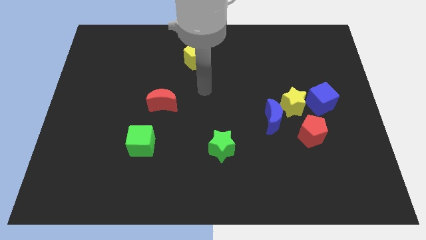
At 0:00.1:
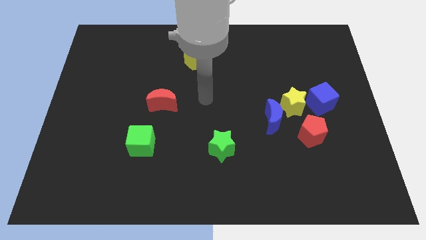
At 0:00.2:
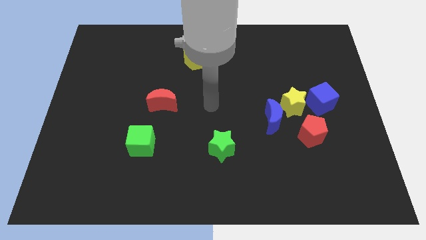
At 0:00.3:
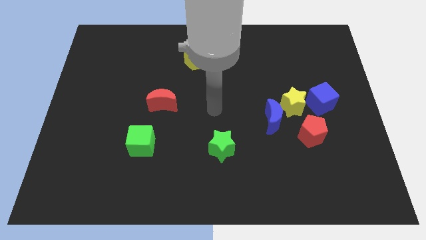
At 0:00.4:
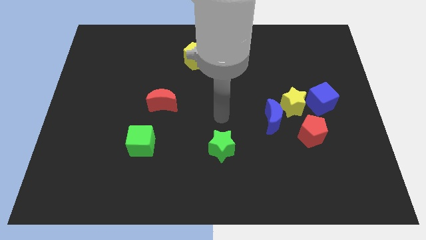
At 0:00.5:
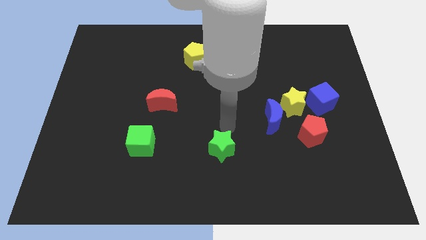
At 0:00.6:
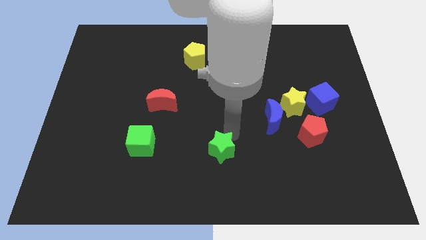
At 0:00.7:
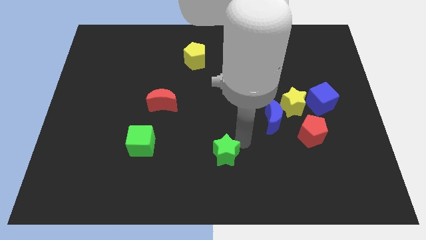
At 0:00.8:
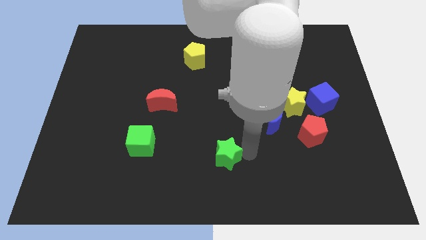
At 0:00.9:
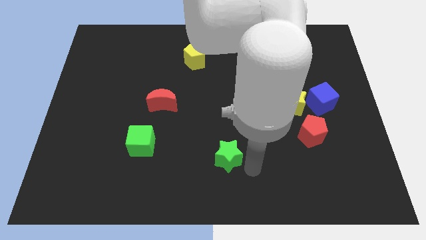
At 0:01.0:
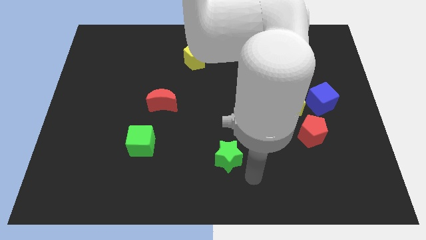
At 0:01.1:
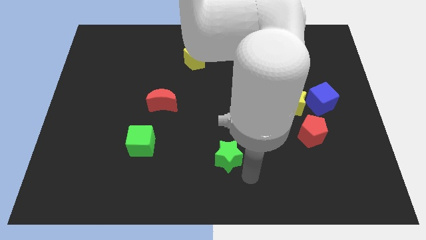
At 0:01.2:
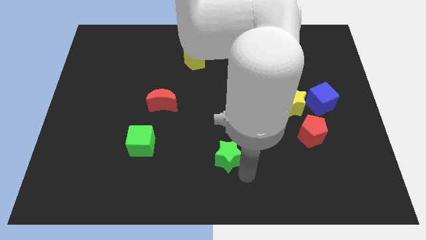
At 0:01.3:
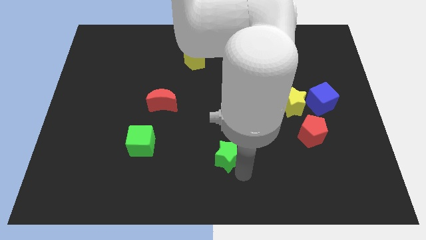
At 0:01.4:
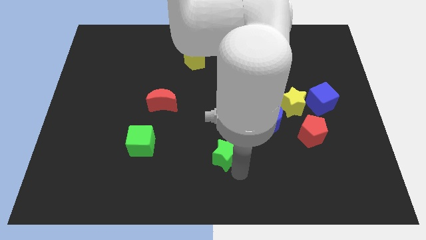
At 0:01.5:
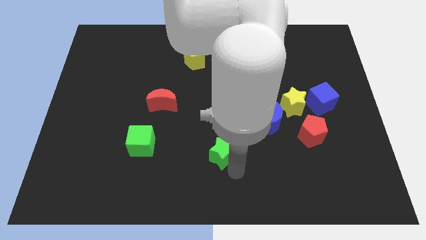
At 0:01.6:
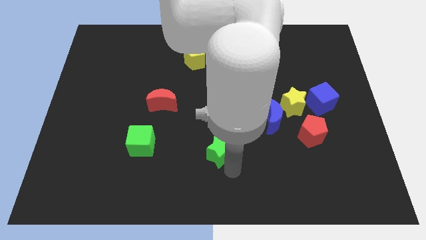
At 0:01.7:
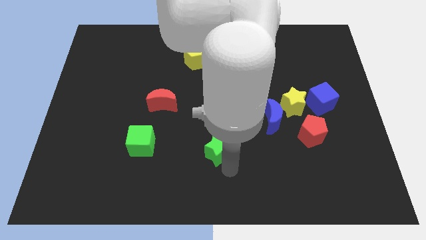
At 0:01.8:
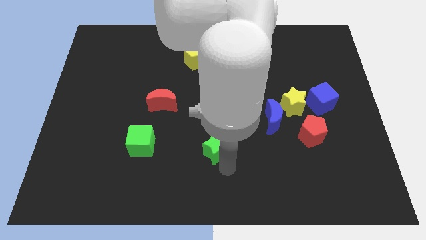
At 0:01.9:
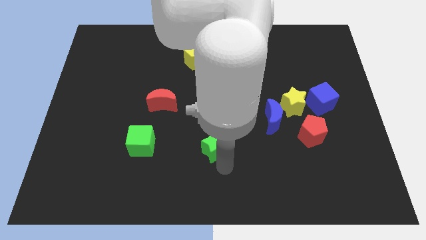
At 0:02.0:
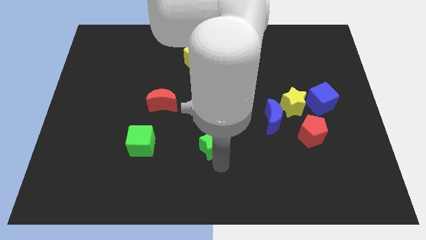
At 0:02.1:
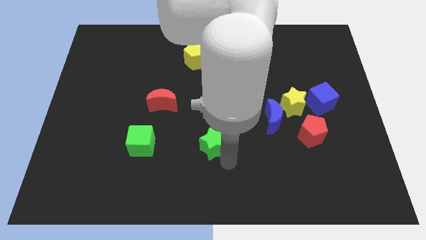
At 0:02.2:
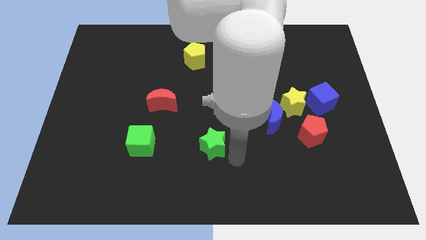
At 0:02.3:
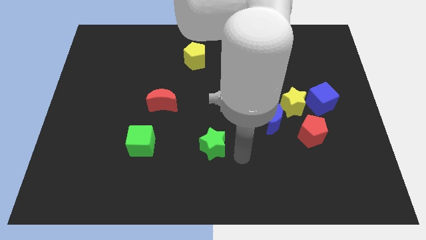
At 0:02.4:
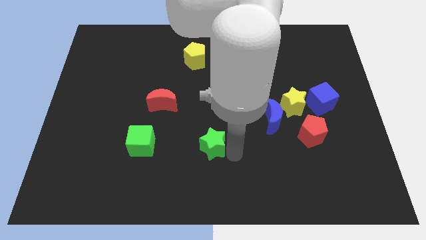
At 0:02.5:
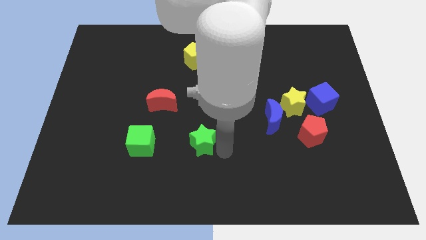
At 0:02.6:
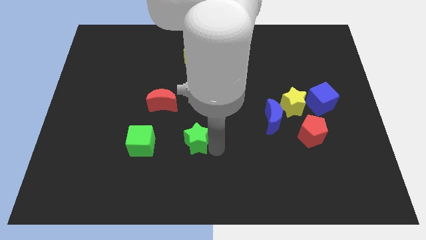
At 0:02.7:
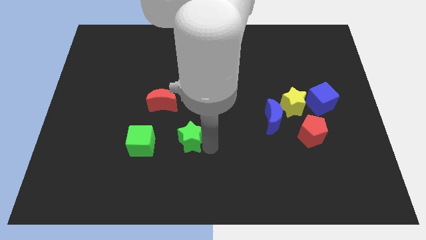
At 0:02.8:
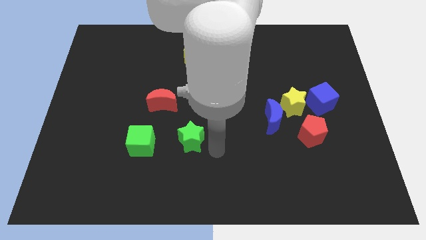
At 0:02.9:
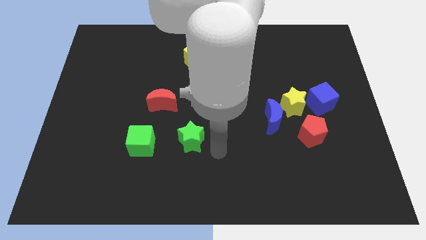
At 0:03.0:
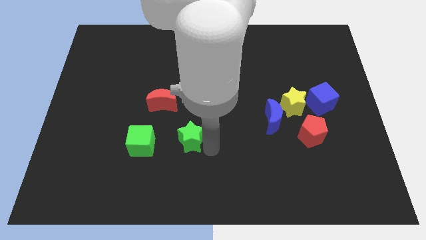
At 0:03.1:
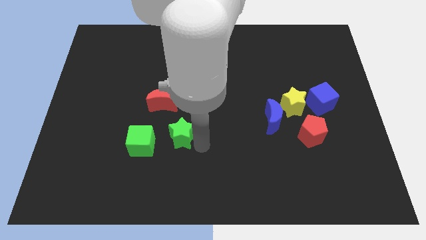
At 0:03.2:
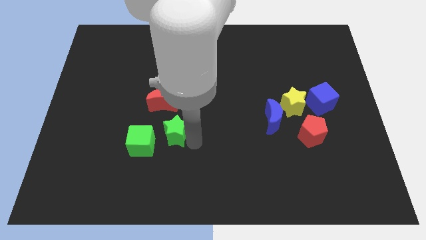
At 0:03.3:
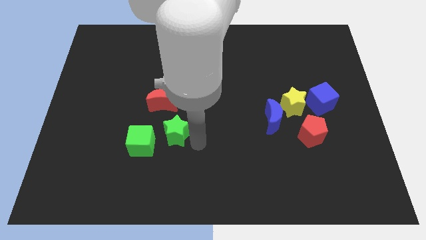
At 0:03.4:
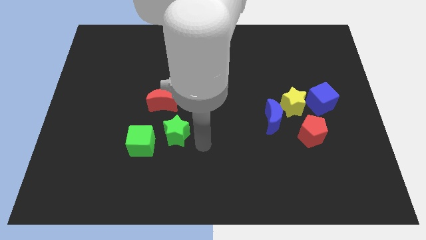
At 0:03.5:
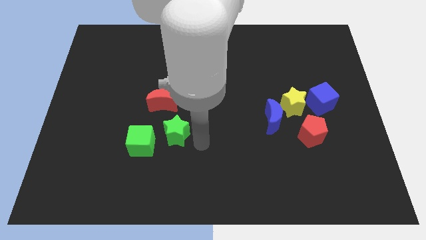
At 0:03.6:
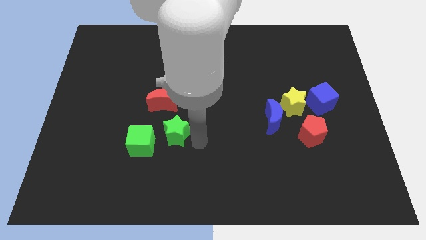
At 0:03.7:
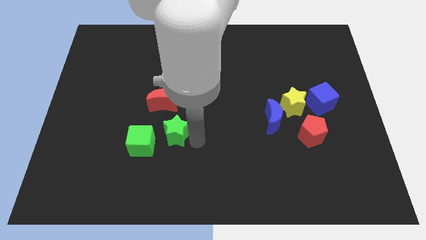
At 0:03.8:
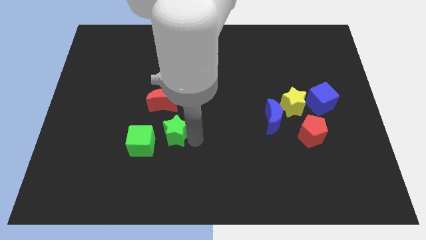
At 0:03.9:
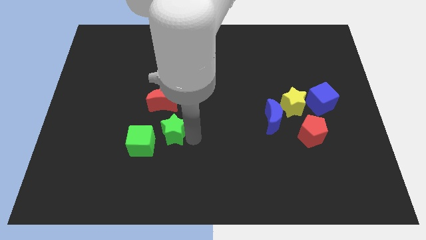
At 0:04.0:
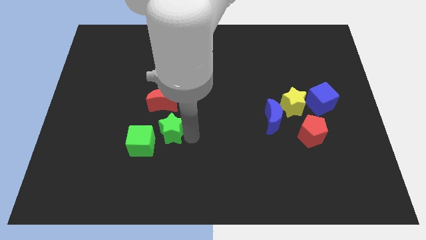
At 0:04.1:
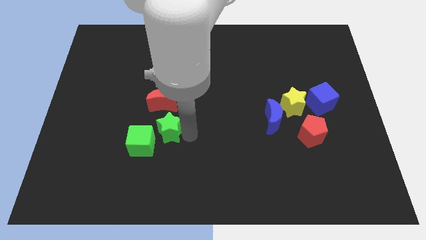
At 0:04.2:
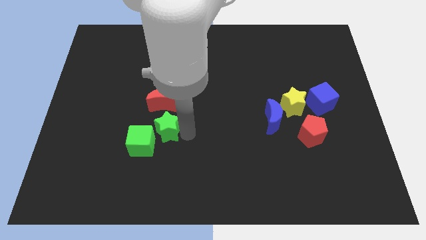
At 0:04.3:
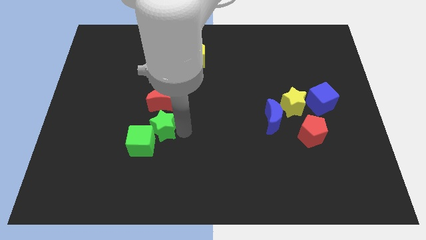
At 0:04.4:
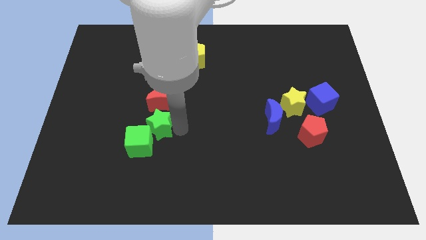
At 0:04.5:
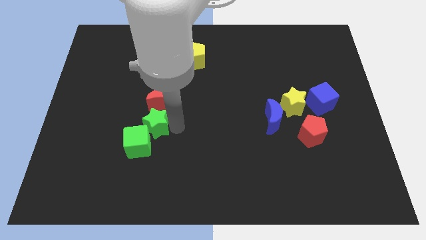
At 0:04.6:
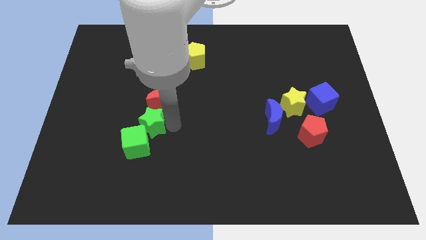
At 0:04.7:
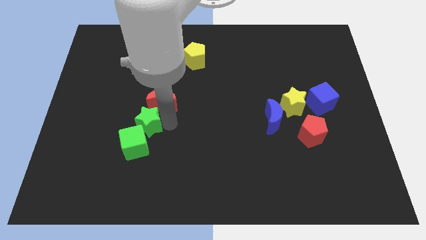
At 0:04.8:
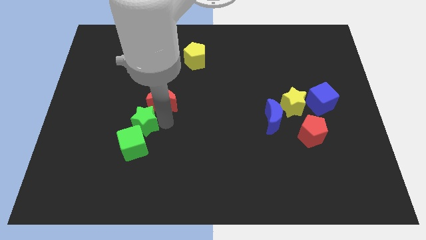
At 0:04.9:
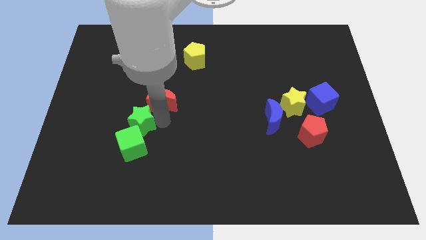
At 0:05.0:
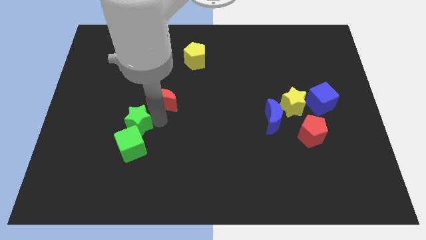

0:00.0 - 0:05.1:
slide the green star to the top left of the green cube

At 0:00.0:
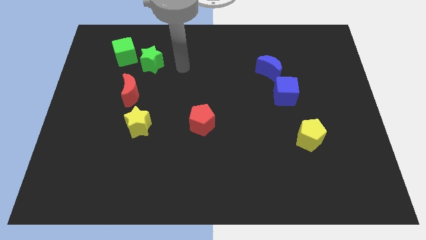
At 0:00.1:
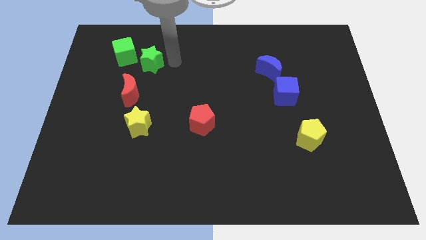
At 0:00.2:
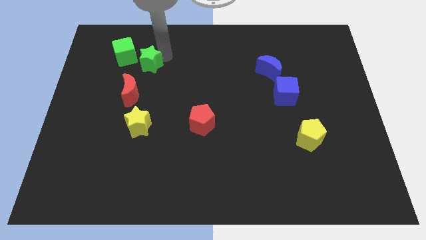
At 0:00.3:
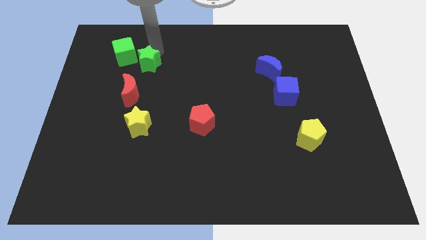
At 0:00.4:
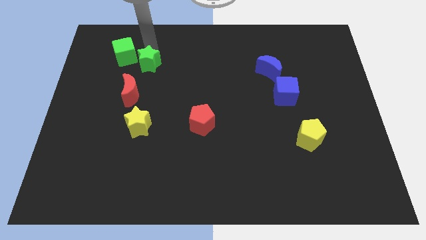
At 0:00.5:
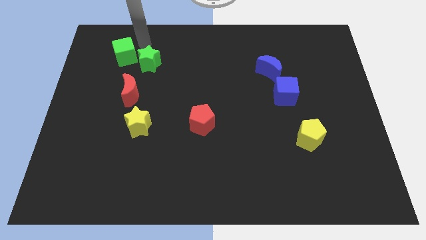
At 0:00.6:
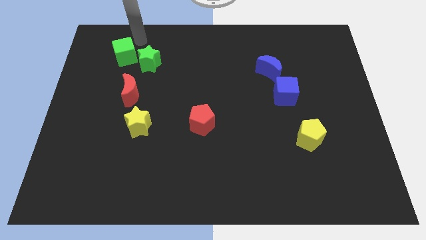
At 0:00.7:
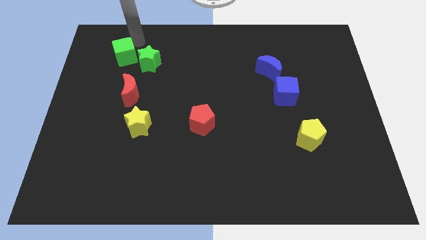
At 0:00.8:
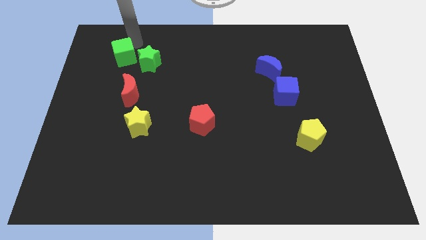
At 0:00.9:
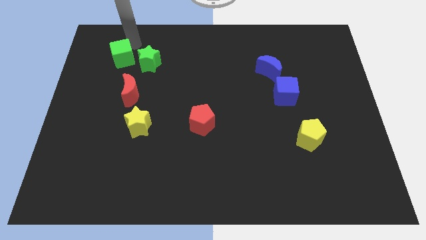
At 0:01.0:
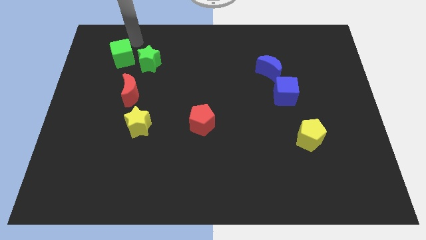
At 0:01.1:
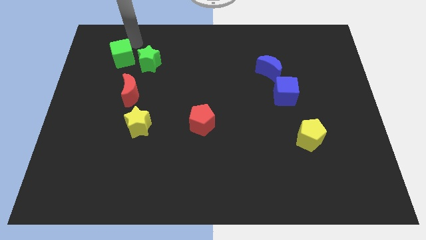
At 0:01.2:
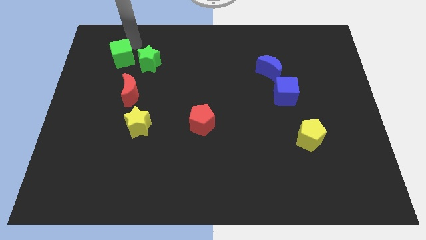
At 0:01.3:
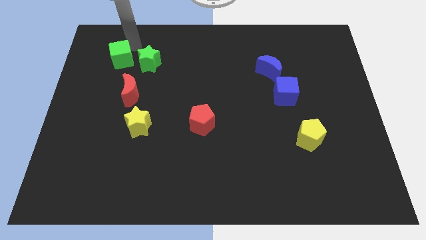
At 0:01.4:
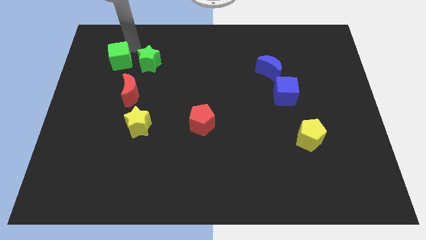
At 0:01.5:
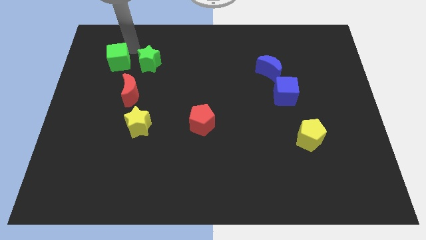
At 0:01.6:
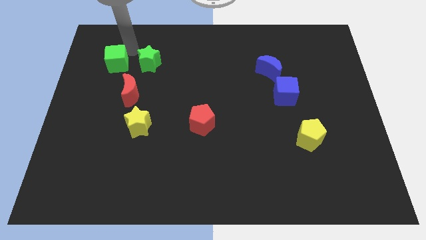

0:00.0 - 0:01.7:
put the green cube diagonally up and to the left of the red moon
